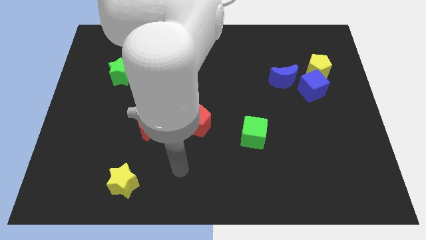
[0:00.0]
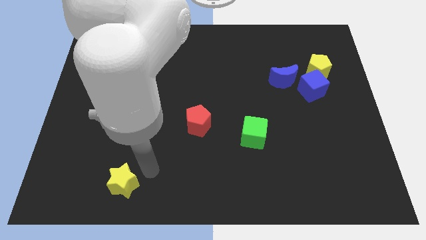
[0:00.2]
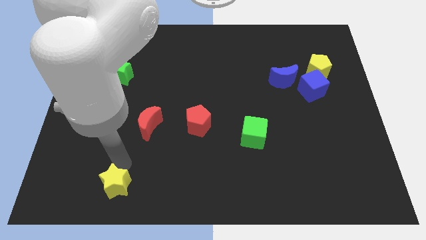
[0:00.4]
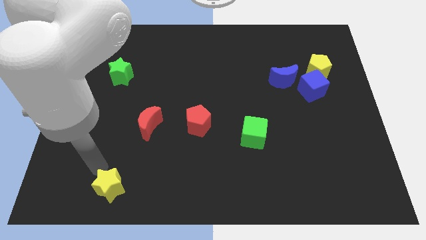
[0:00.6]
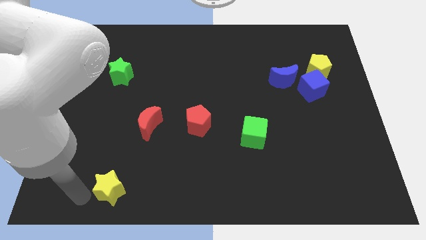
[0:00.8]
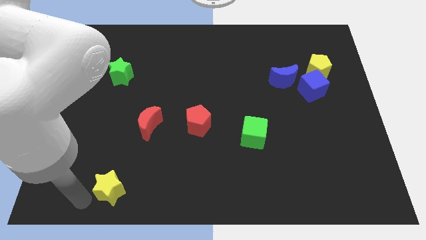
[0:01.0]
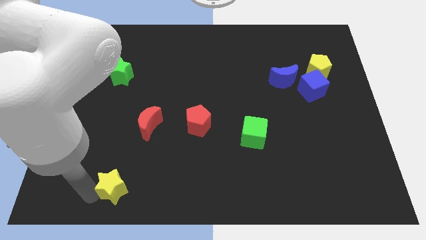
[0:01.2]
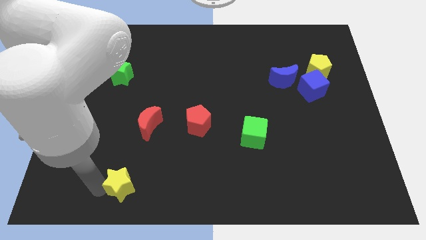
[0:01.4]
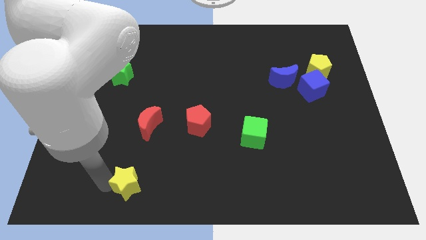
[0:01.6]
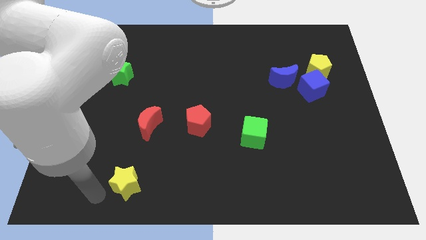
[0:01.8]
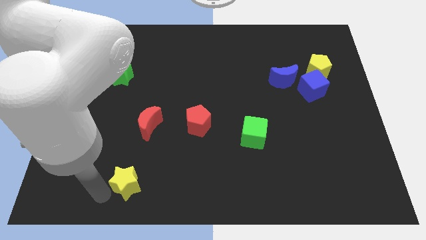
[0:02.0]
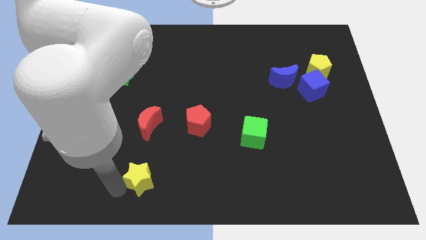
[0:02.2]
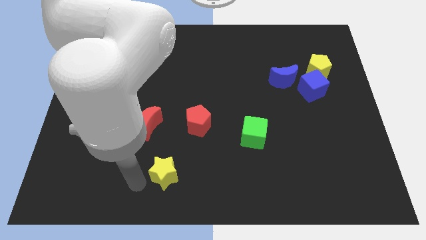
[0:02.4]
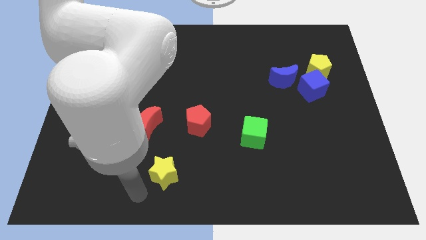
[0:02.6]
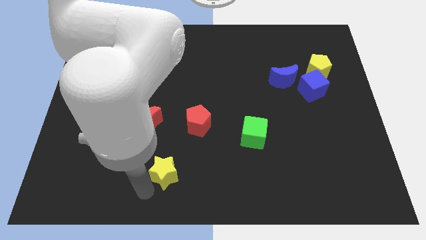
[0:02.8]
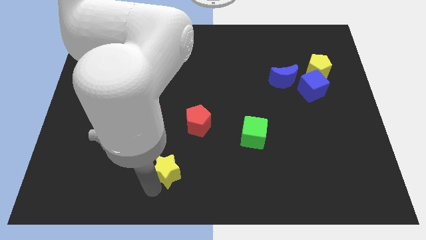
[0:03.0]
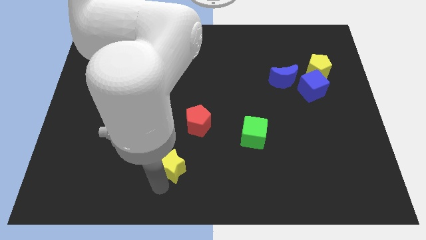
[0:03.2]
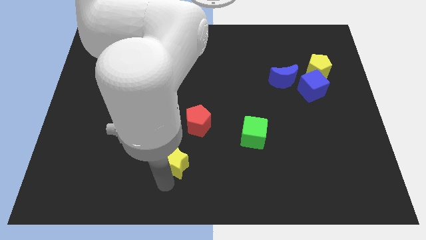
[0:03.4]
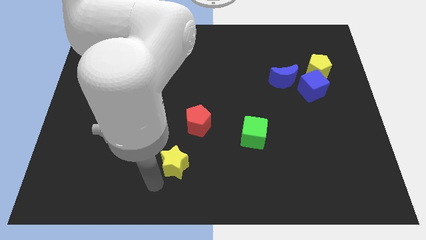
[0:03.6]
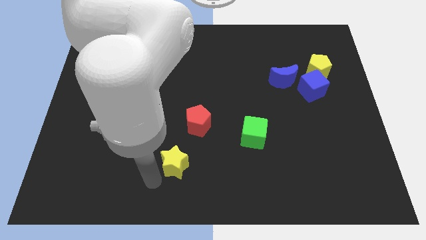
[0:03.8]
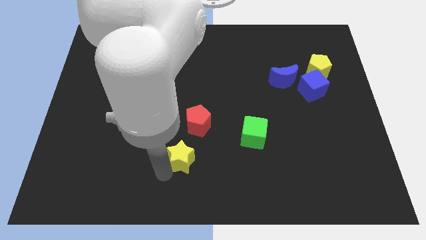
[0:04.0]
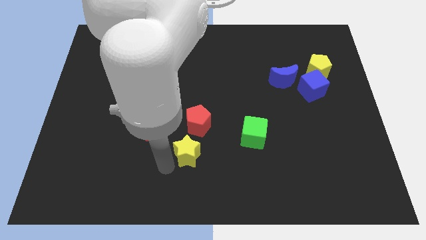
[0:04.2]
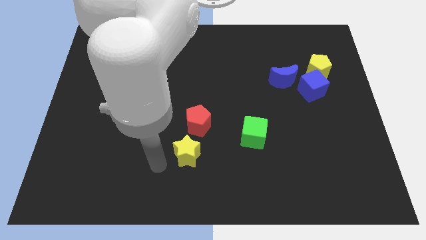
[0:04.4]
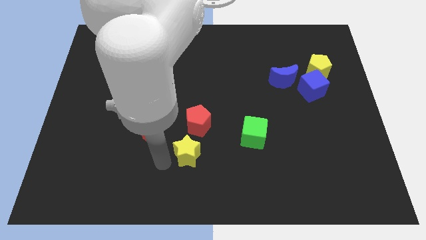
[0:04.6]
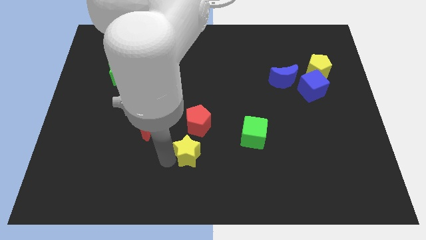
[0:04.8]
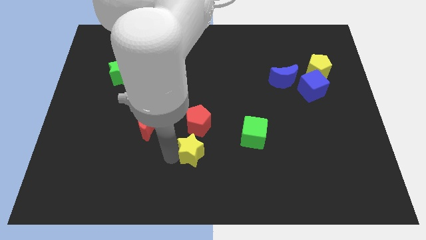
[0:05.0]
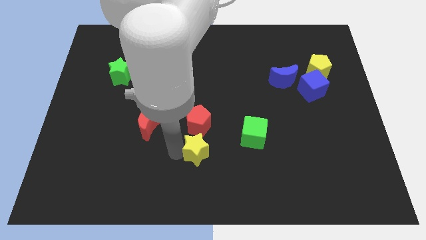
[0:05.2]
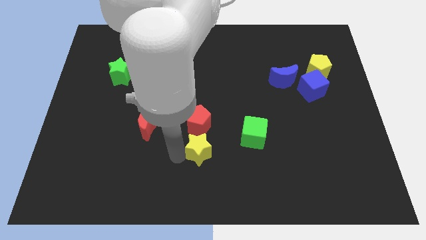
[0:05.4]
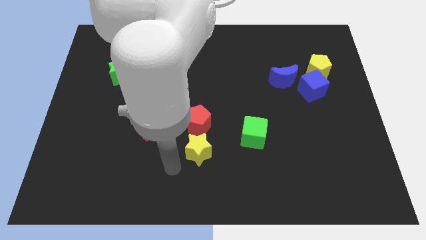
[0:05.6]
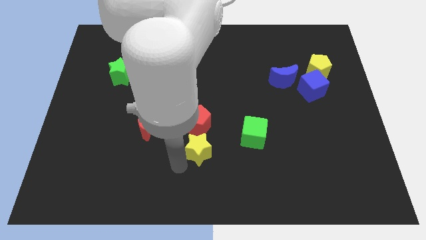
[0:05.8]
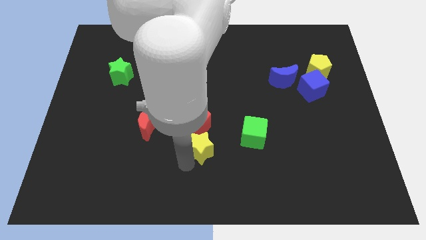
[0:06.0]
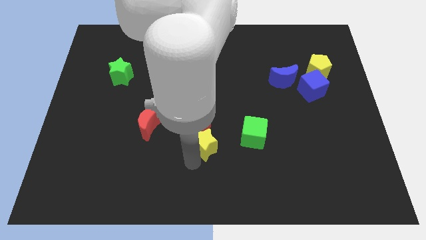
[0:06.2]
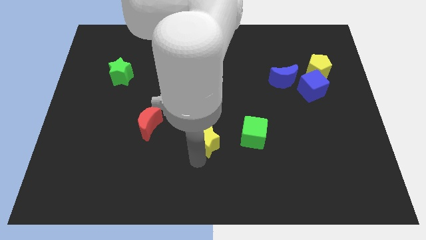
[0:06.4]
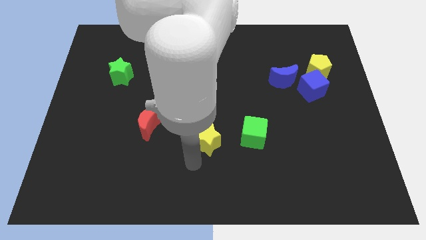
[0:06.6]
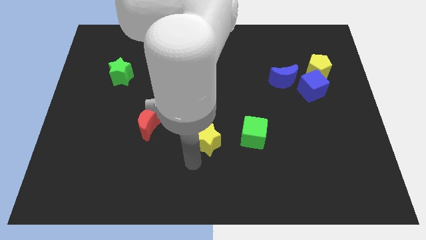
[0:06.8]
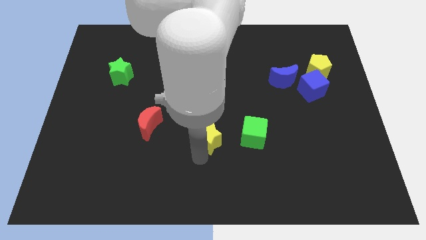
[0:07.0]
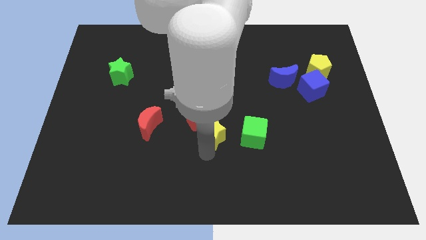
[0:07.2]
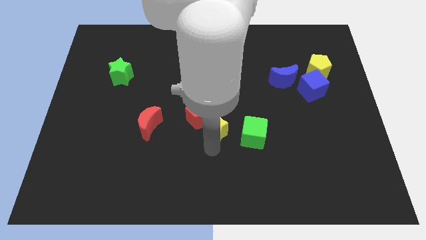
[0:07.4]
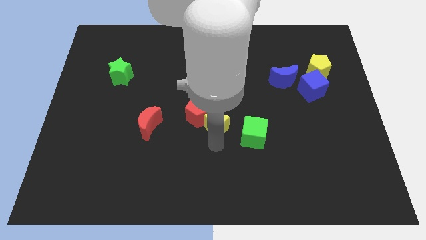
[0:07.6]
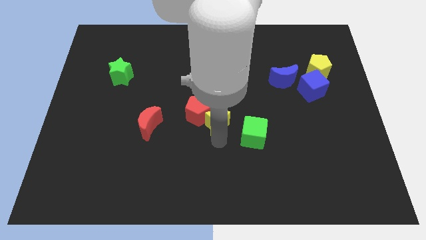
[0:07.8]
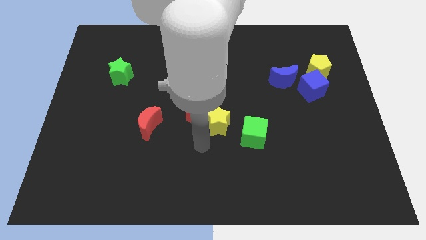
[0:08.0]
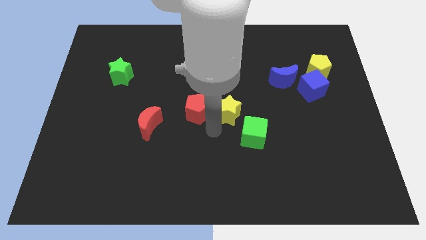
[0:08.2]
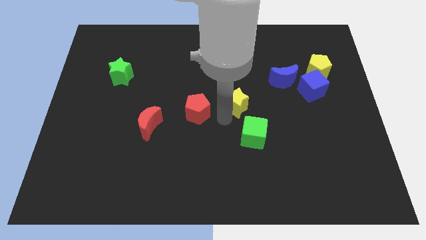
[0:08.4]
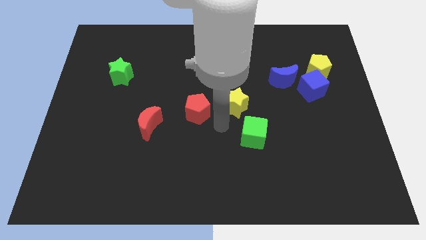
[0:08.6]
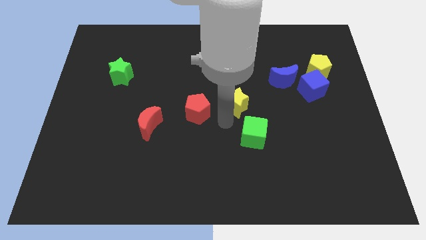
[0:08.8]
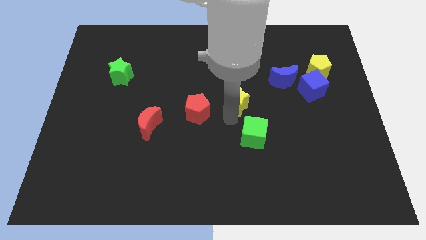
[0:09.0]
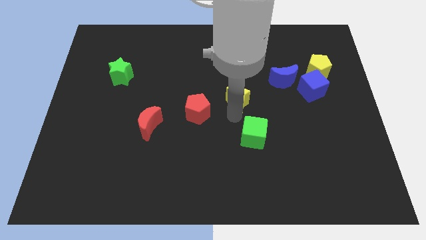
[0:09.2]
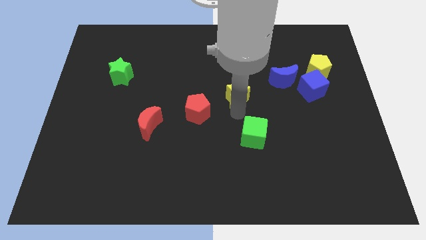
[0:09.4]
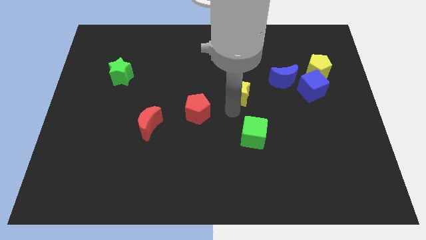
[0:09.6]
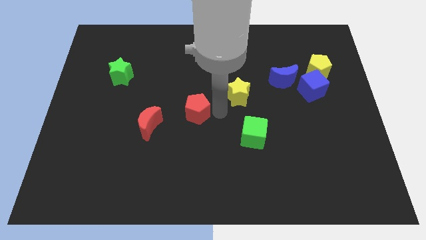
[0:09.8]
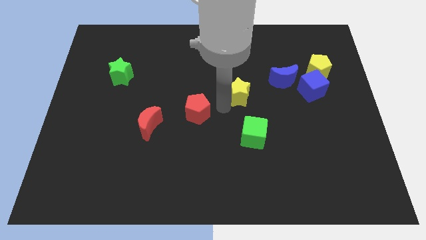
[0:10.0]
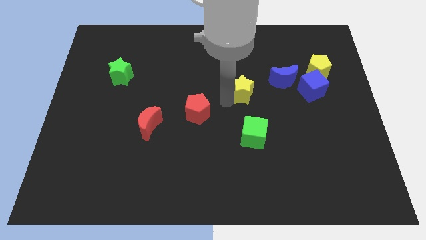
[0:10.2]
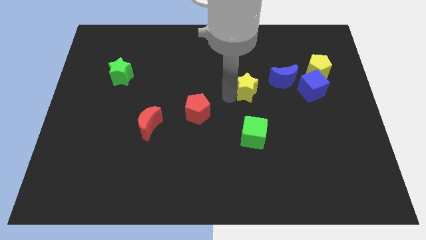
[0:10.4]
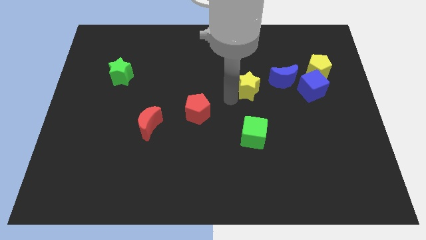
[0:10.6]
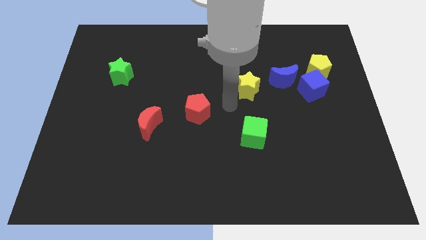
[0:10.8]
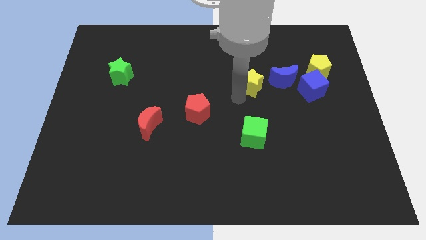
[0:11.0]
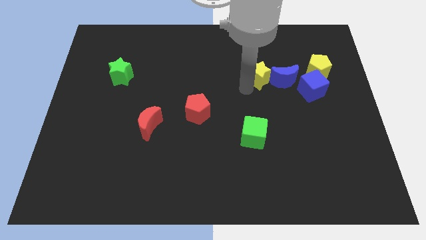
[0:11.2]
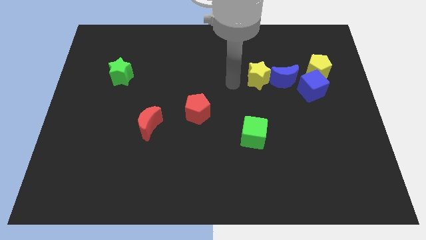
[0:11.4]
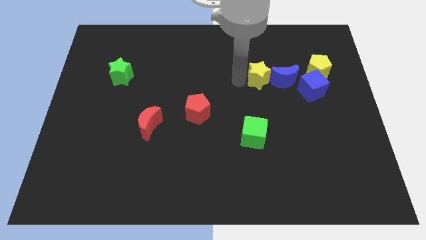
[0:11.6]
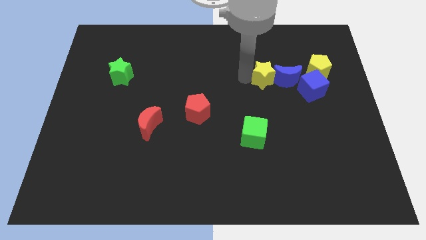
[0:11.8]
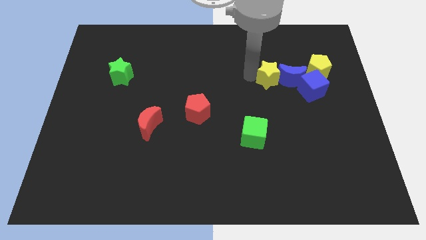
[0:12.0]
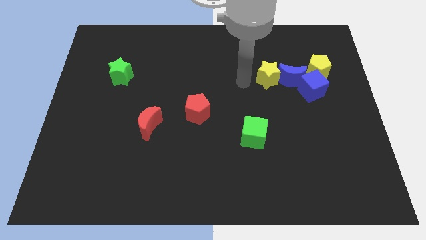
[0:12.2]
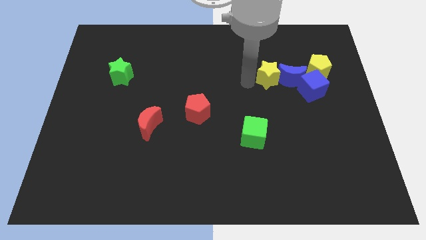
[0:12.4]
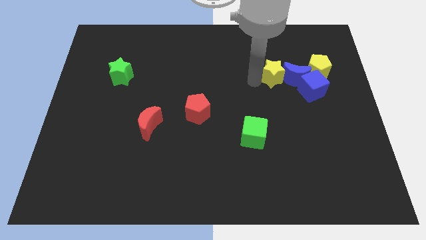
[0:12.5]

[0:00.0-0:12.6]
move the yellow star to the top left of the blue cube
